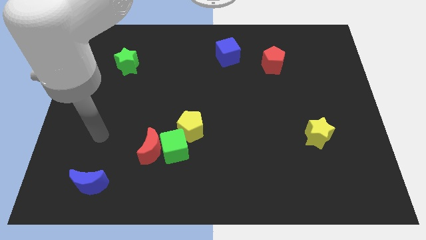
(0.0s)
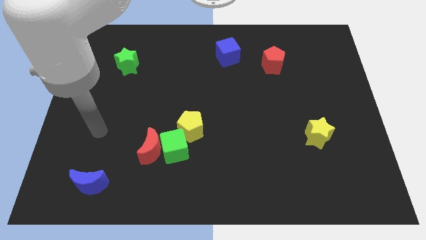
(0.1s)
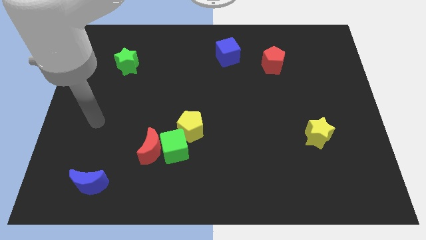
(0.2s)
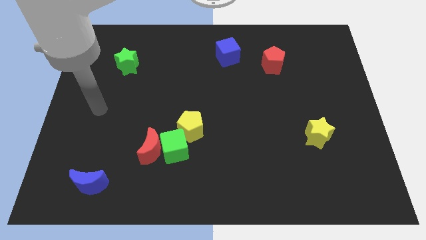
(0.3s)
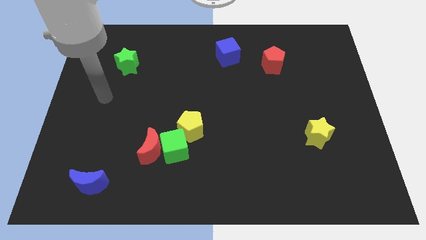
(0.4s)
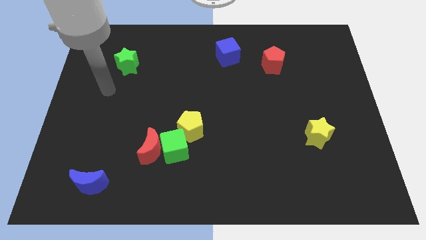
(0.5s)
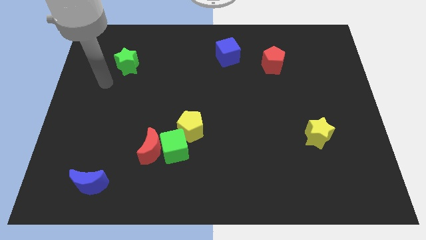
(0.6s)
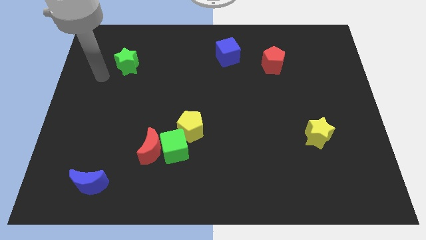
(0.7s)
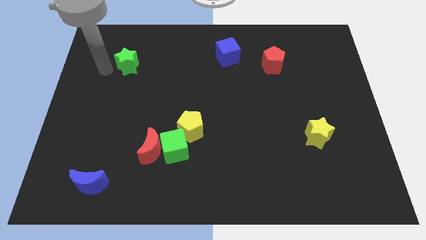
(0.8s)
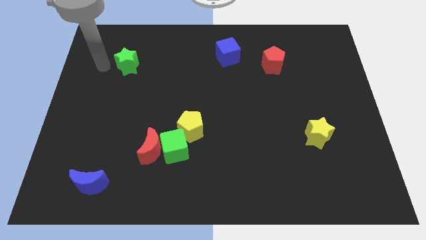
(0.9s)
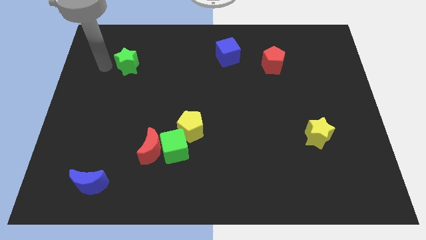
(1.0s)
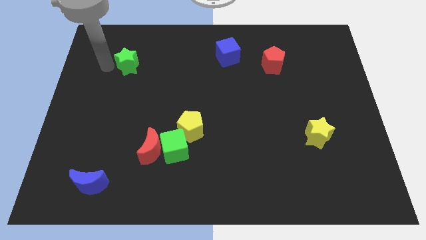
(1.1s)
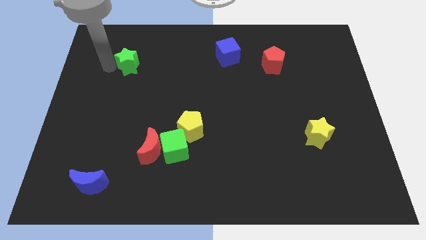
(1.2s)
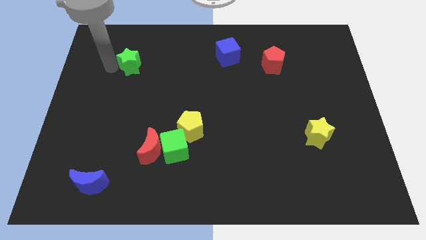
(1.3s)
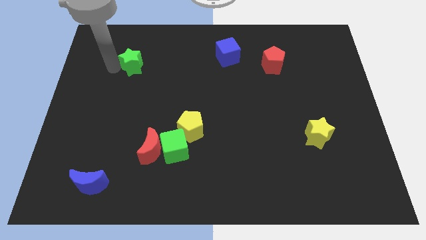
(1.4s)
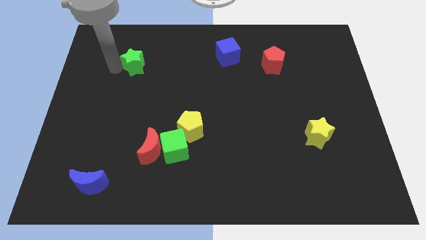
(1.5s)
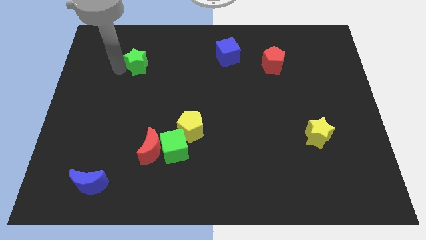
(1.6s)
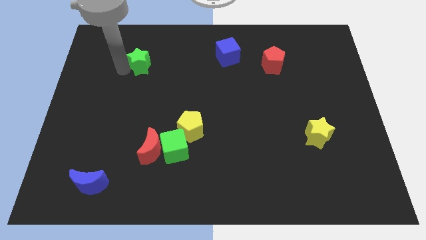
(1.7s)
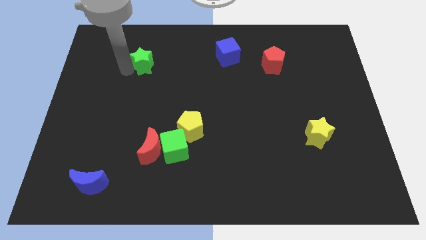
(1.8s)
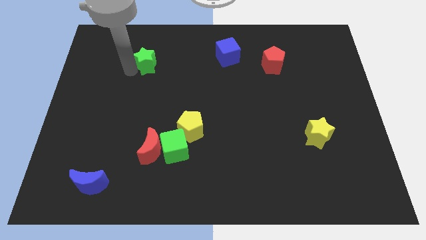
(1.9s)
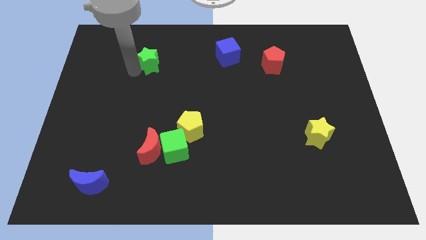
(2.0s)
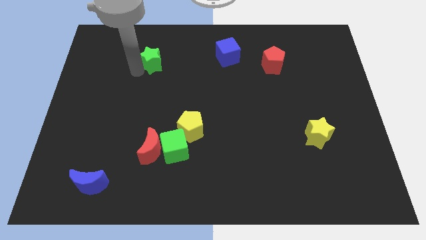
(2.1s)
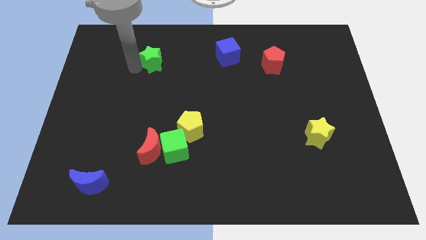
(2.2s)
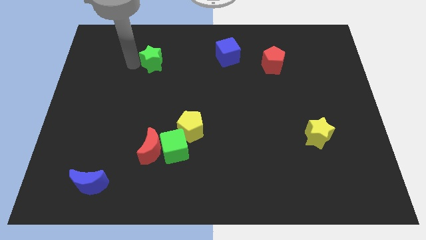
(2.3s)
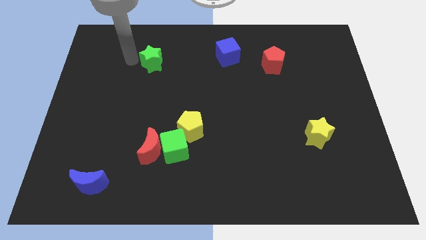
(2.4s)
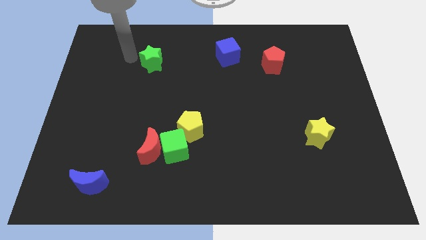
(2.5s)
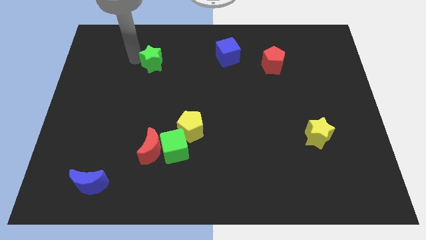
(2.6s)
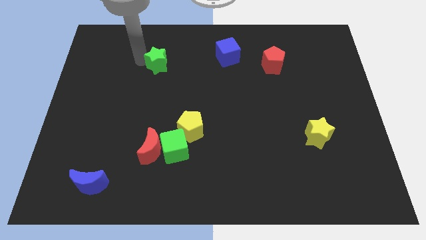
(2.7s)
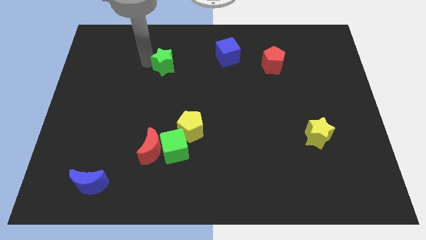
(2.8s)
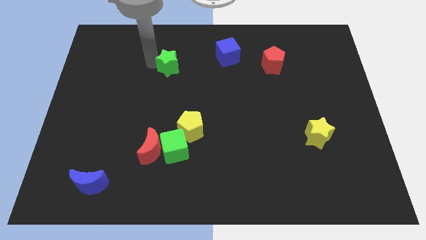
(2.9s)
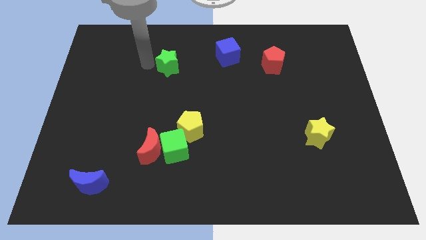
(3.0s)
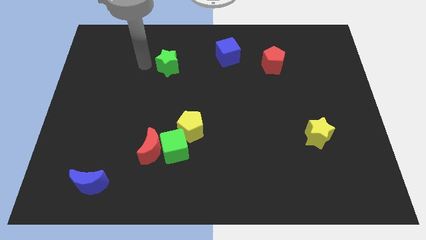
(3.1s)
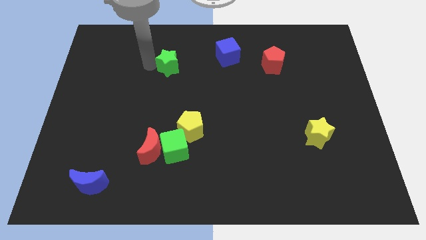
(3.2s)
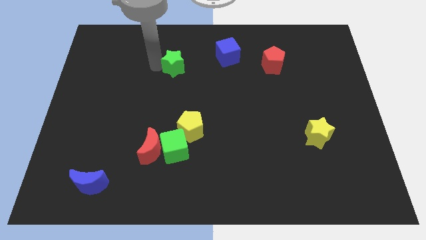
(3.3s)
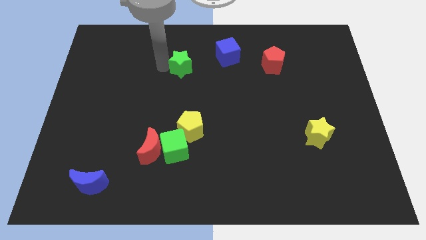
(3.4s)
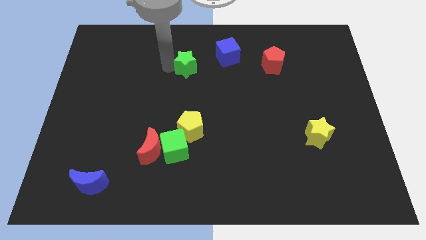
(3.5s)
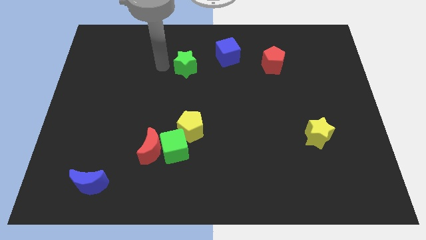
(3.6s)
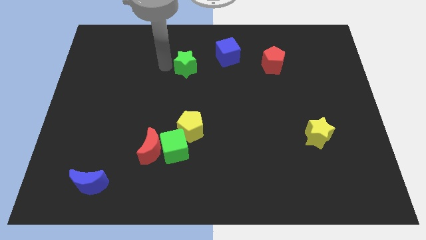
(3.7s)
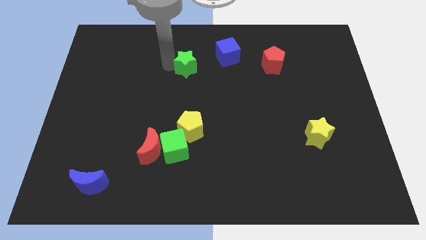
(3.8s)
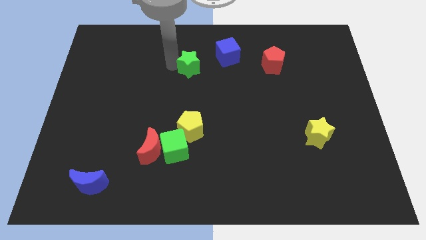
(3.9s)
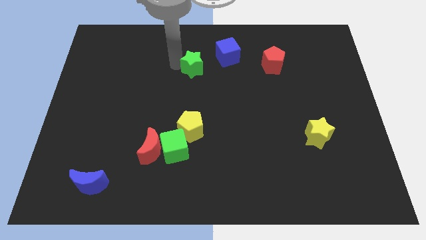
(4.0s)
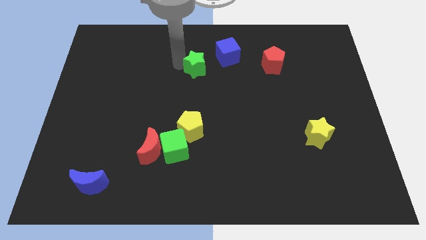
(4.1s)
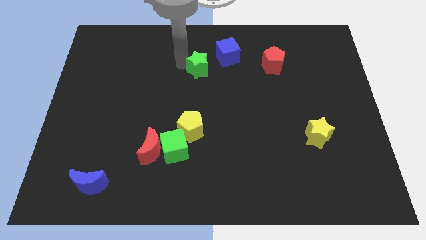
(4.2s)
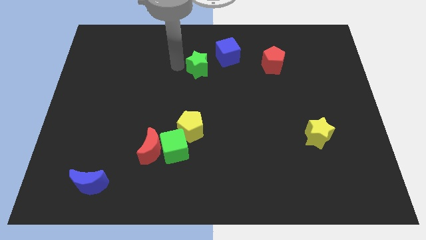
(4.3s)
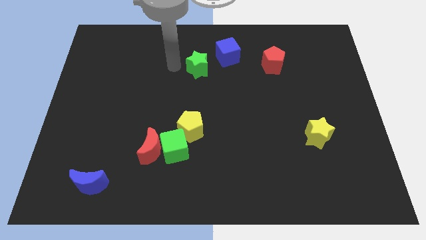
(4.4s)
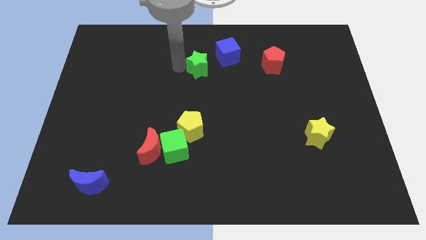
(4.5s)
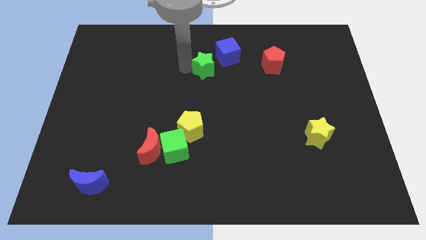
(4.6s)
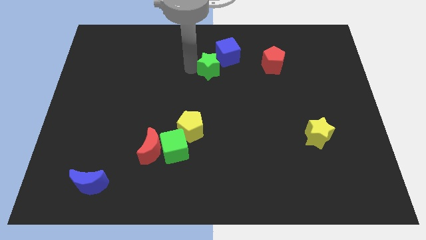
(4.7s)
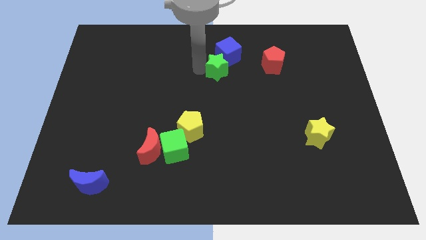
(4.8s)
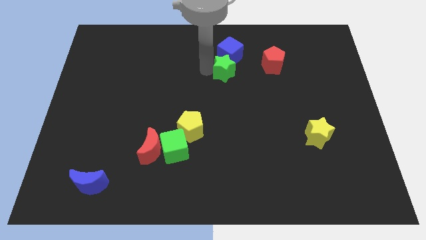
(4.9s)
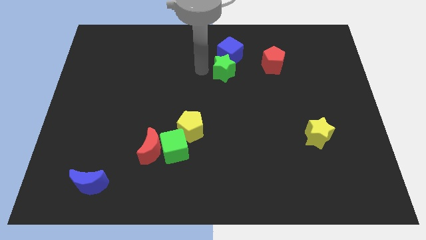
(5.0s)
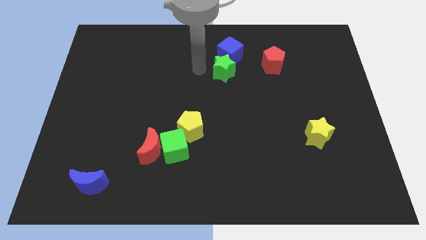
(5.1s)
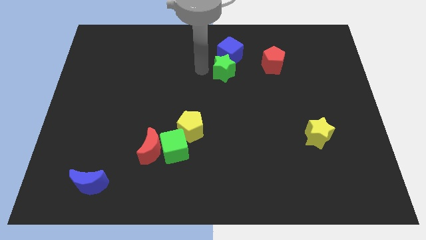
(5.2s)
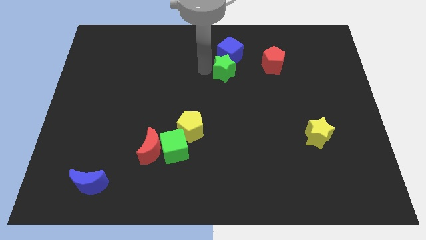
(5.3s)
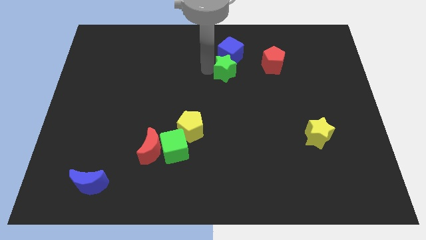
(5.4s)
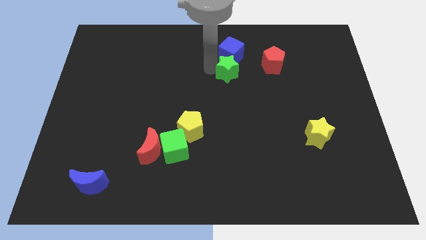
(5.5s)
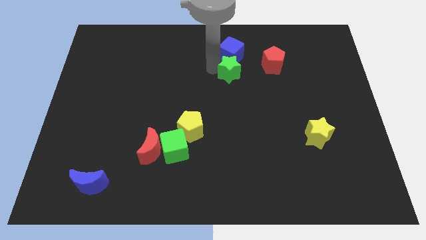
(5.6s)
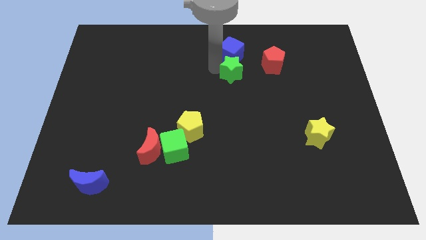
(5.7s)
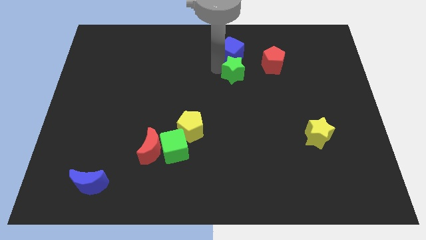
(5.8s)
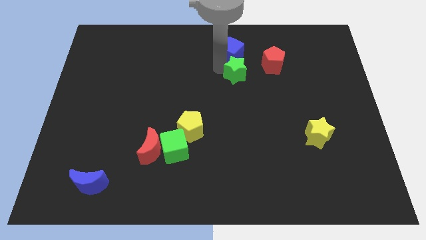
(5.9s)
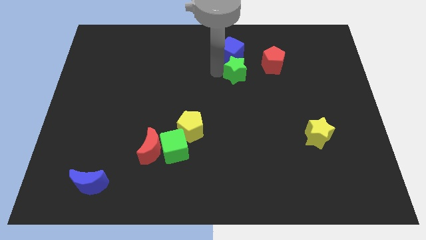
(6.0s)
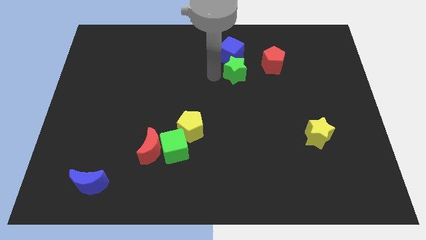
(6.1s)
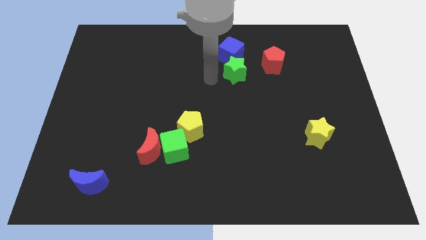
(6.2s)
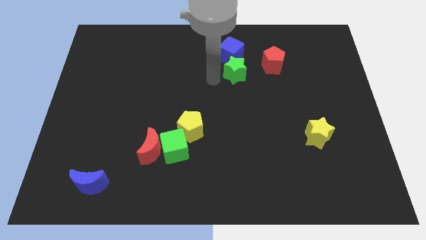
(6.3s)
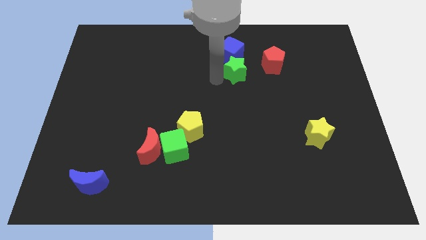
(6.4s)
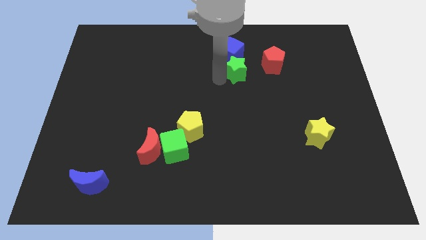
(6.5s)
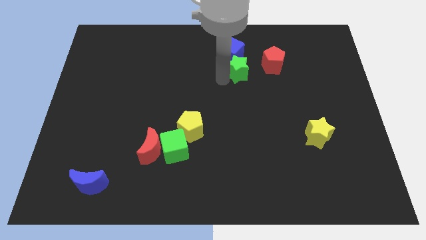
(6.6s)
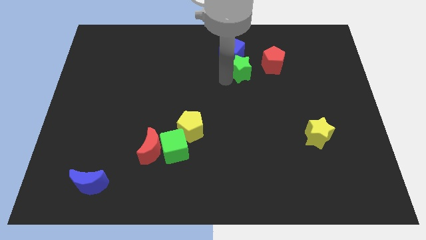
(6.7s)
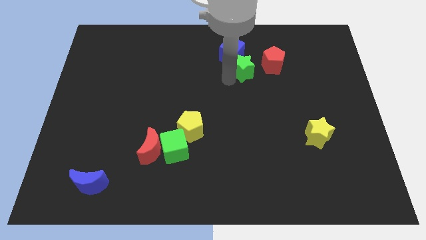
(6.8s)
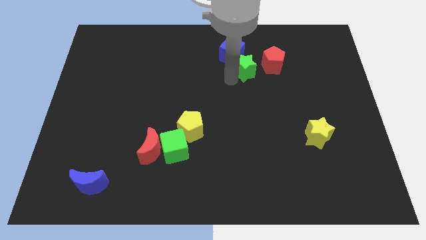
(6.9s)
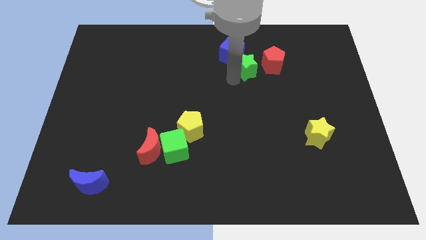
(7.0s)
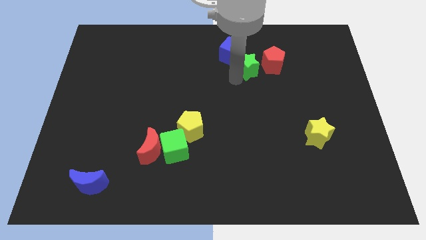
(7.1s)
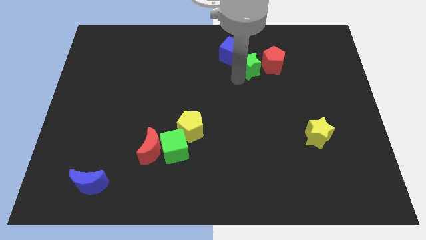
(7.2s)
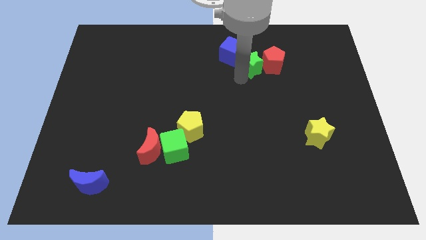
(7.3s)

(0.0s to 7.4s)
slide the green star next to the red pentagon
